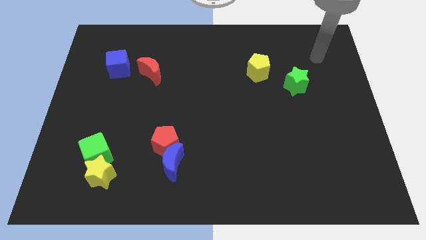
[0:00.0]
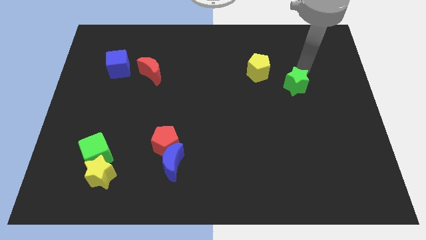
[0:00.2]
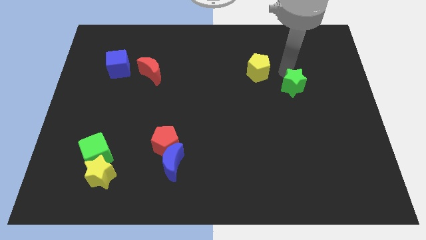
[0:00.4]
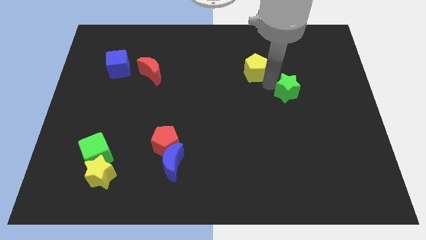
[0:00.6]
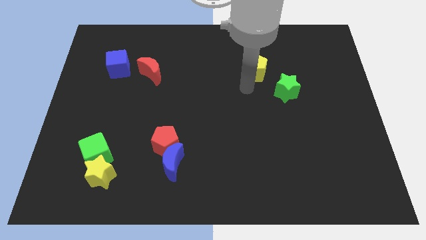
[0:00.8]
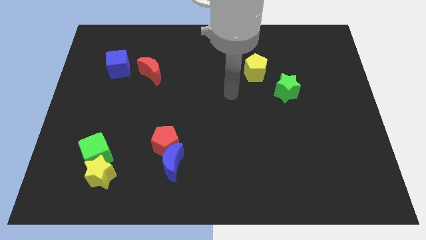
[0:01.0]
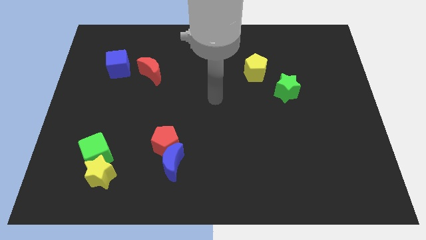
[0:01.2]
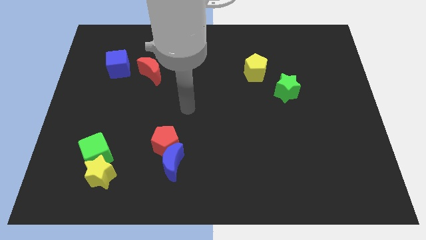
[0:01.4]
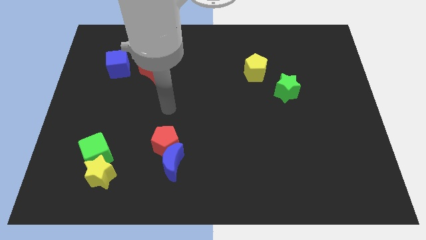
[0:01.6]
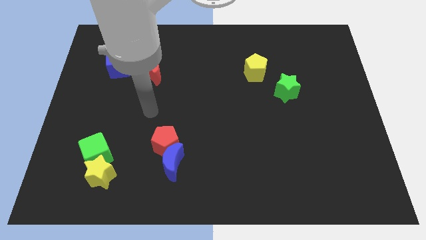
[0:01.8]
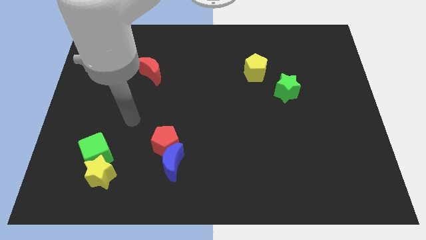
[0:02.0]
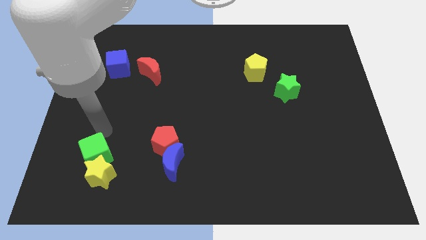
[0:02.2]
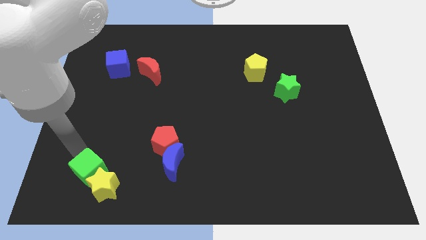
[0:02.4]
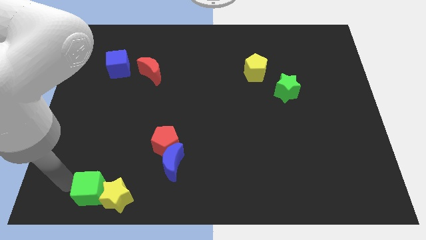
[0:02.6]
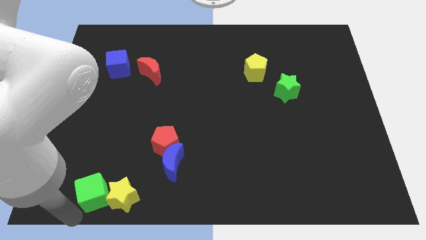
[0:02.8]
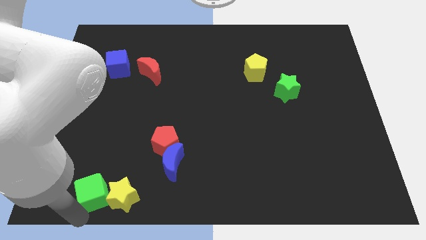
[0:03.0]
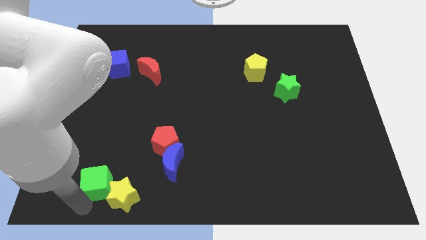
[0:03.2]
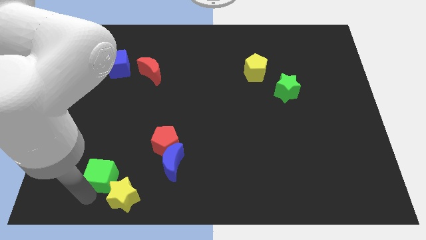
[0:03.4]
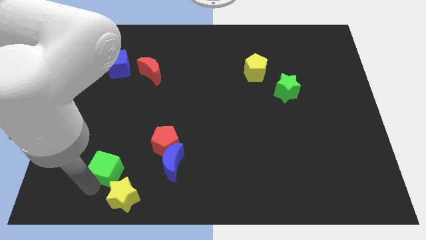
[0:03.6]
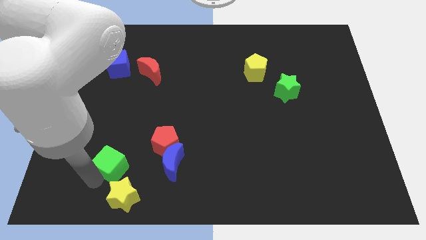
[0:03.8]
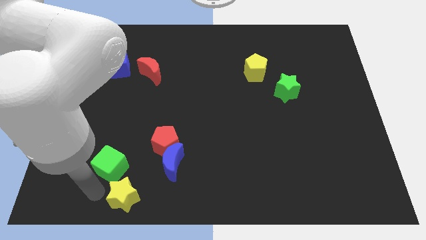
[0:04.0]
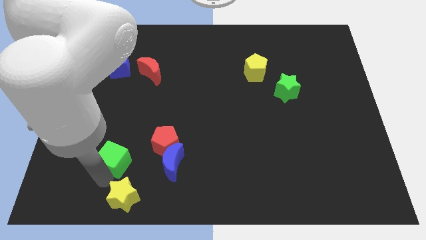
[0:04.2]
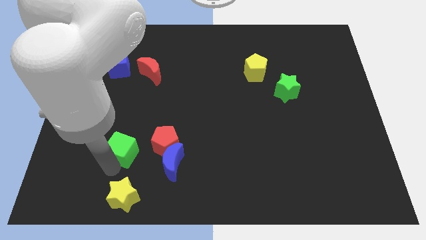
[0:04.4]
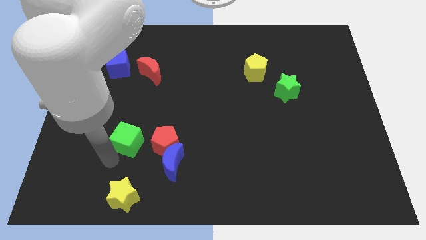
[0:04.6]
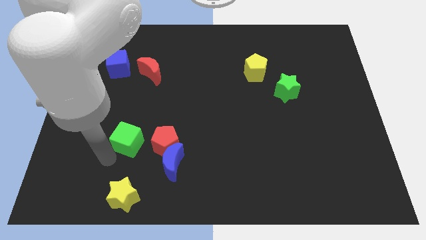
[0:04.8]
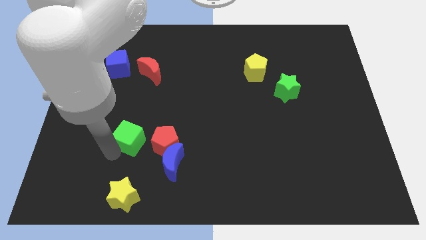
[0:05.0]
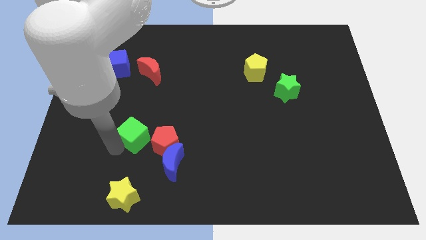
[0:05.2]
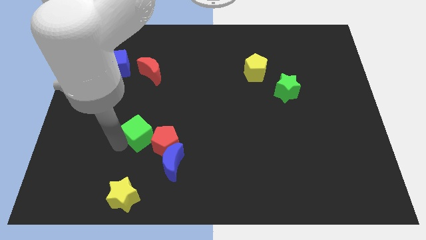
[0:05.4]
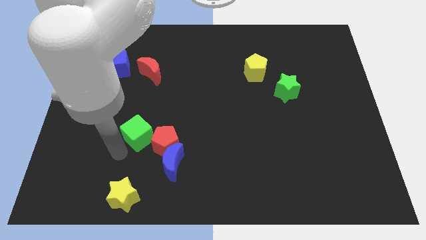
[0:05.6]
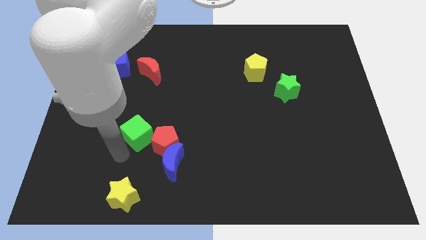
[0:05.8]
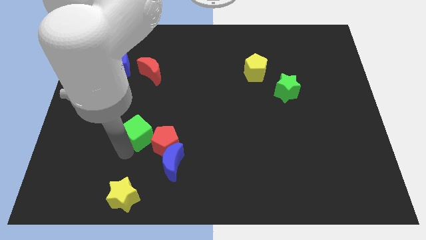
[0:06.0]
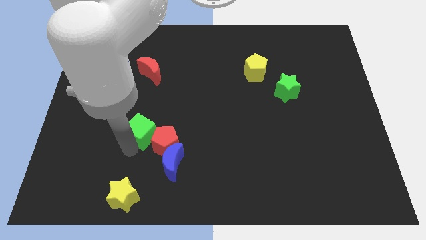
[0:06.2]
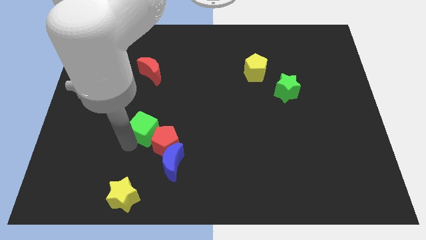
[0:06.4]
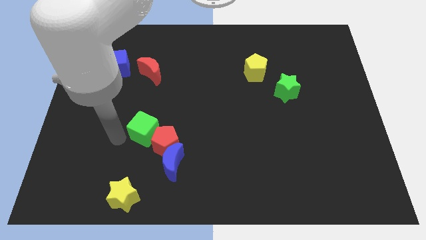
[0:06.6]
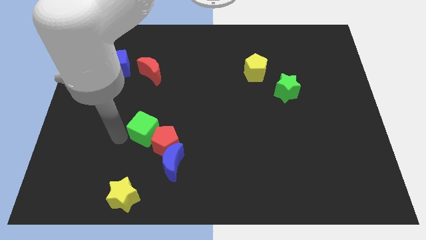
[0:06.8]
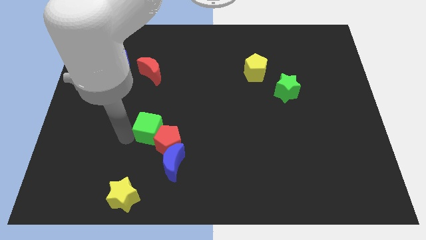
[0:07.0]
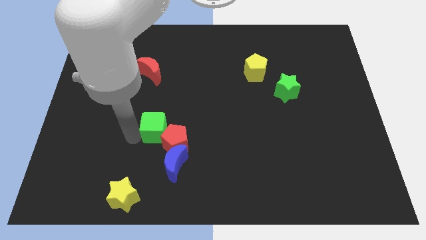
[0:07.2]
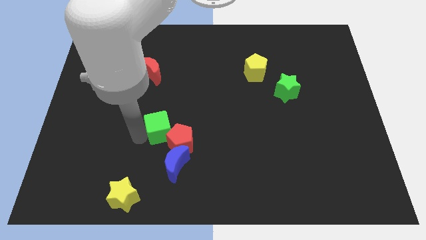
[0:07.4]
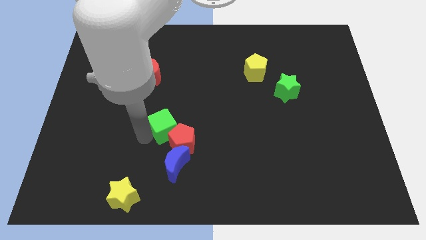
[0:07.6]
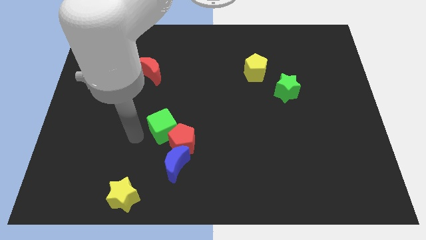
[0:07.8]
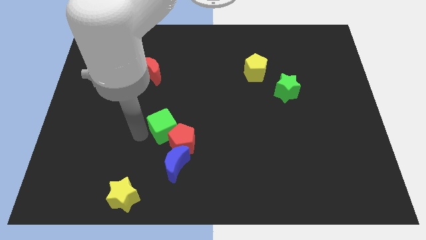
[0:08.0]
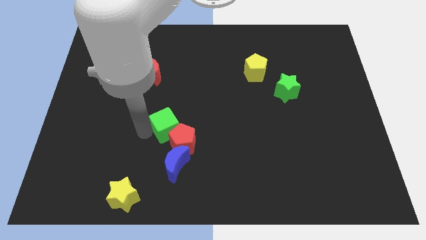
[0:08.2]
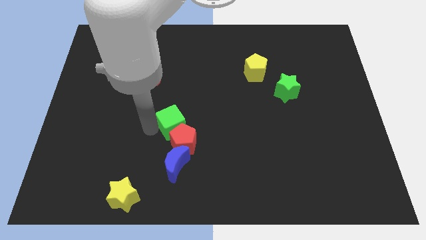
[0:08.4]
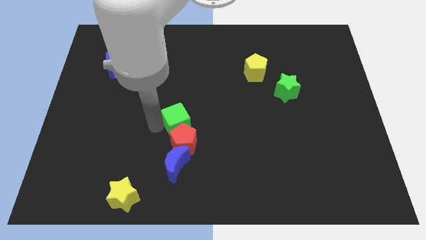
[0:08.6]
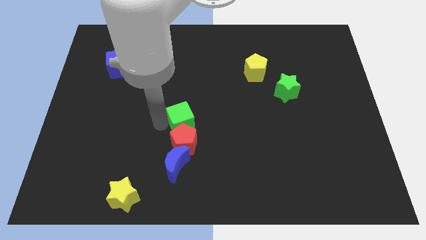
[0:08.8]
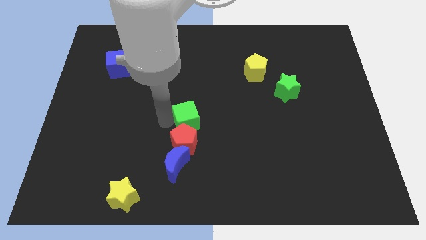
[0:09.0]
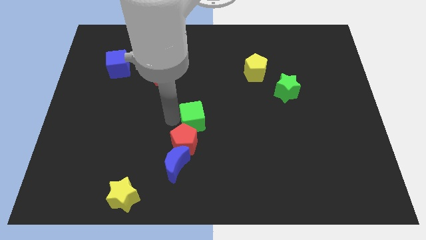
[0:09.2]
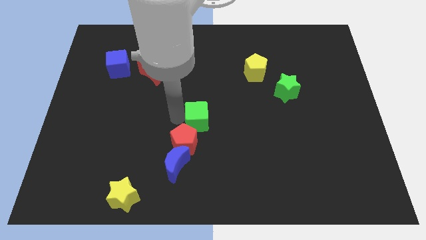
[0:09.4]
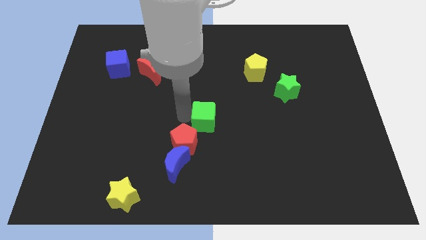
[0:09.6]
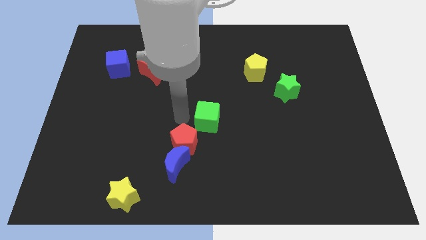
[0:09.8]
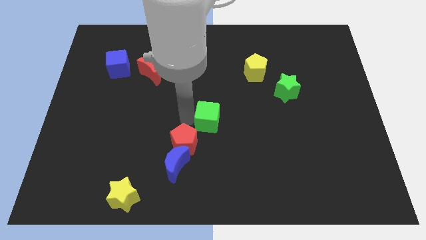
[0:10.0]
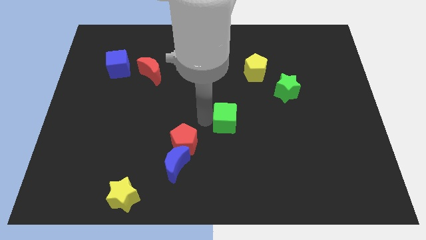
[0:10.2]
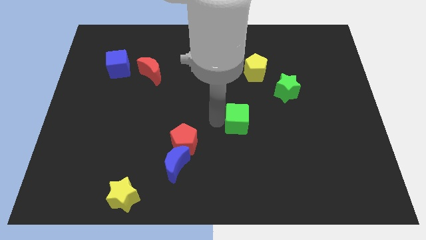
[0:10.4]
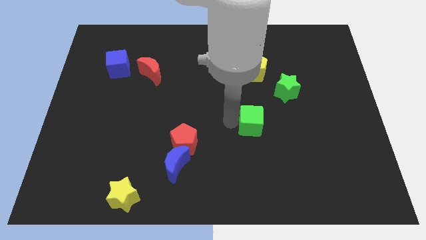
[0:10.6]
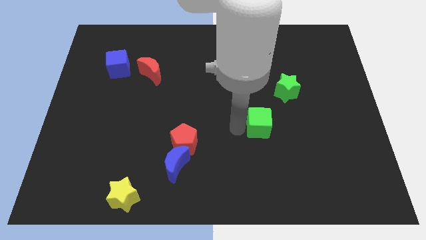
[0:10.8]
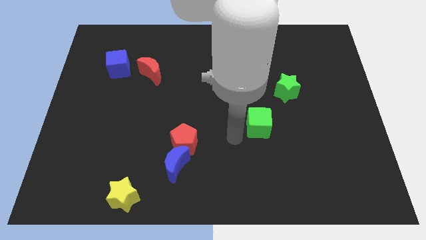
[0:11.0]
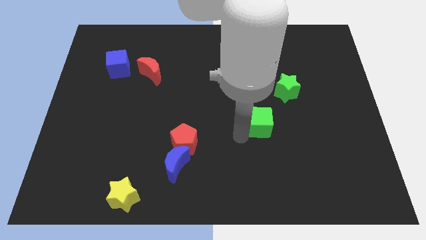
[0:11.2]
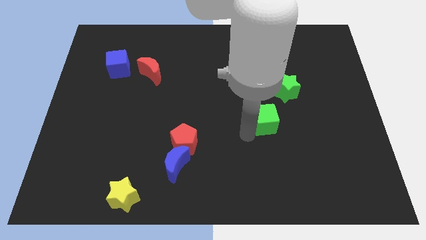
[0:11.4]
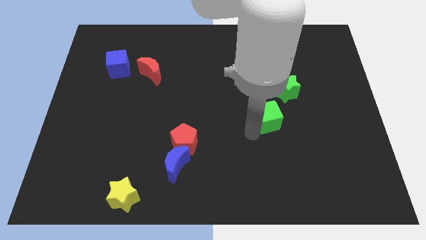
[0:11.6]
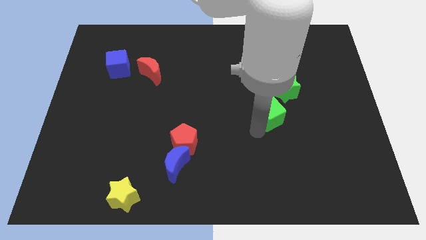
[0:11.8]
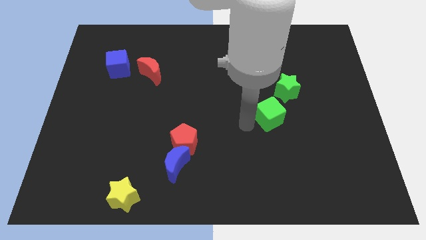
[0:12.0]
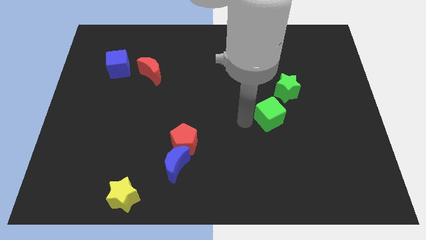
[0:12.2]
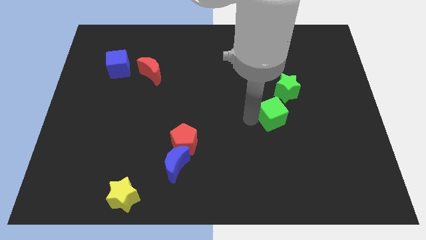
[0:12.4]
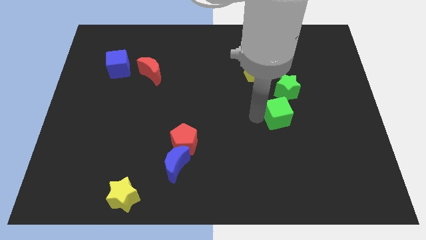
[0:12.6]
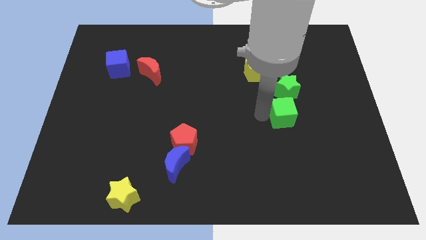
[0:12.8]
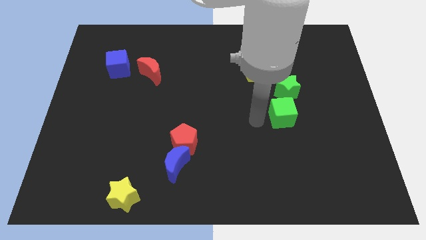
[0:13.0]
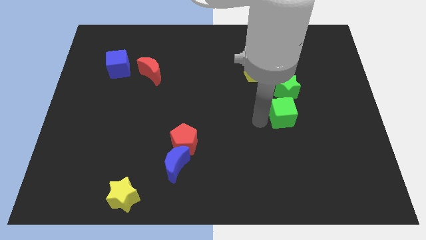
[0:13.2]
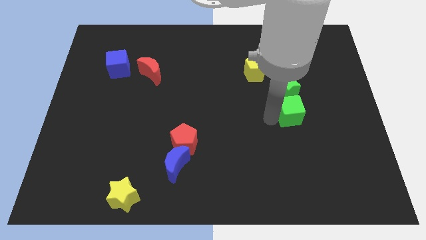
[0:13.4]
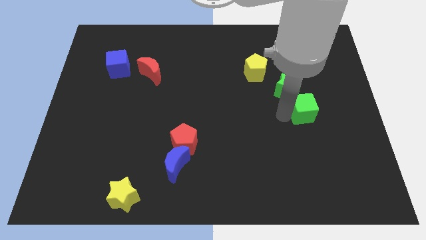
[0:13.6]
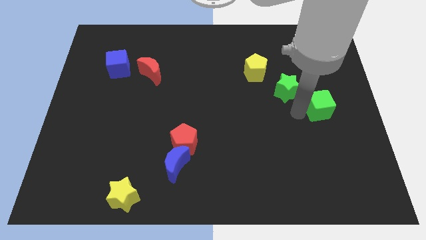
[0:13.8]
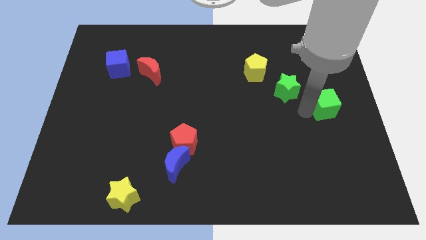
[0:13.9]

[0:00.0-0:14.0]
slide the green cube to the right side
